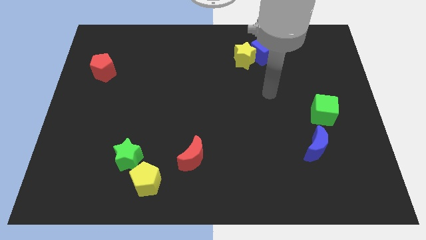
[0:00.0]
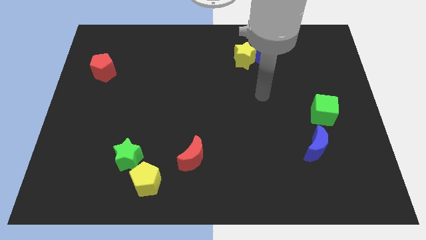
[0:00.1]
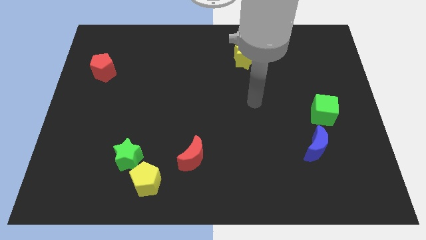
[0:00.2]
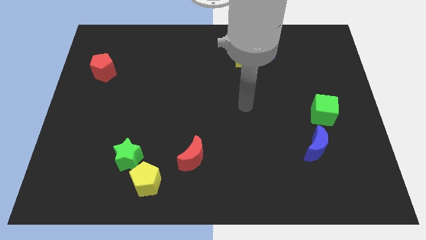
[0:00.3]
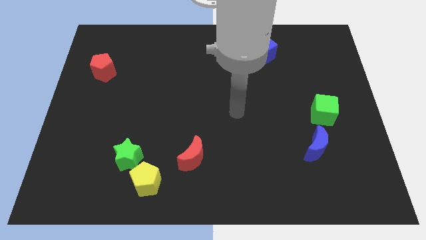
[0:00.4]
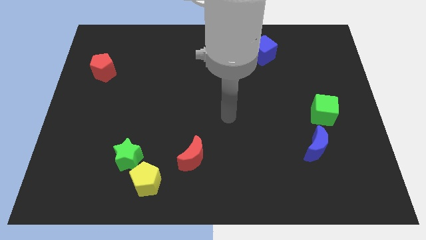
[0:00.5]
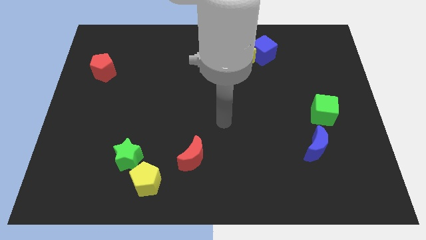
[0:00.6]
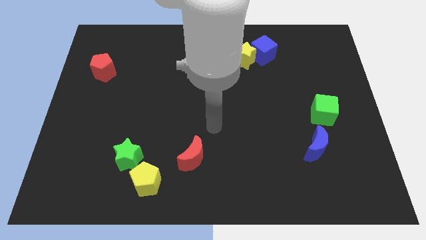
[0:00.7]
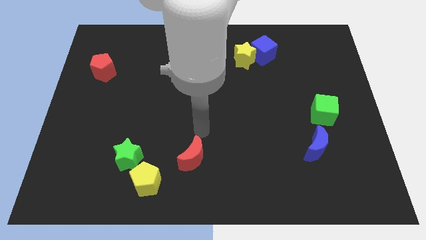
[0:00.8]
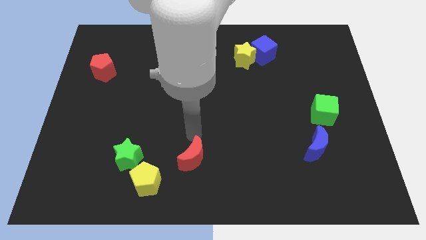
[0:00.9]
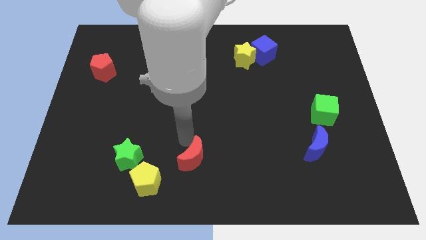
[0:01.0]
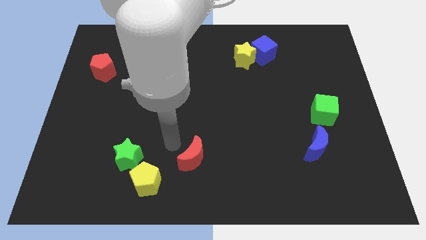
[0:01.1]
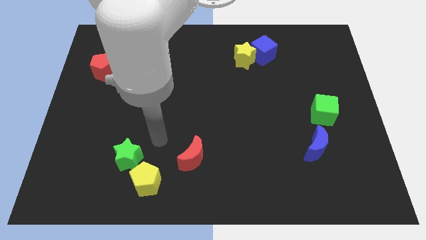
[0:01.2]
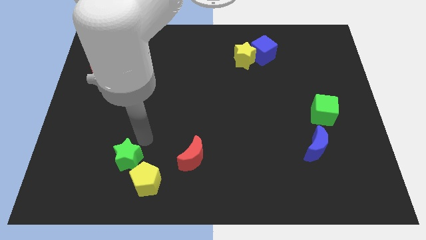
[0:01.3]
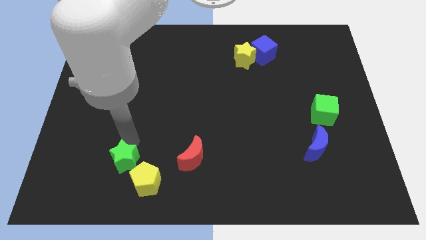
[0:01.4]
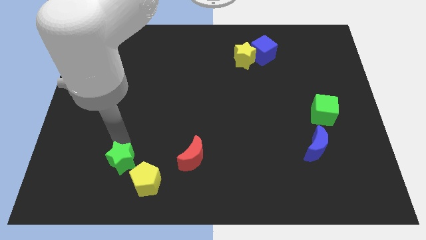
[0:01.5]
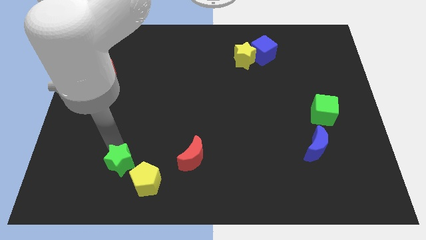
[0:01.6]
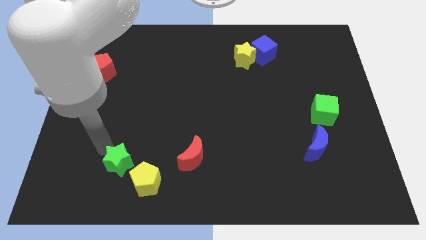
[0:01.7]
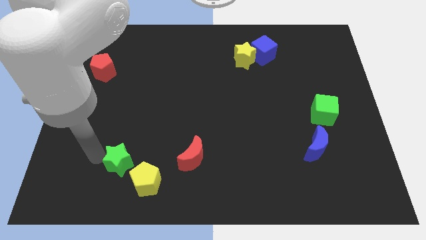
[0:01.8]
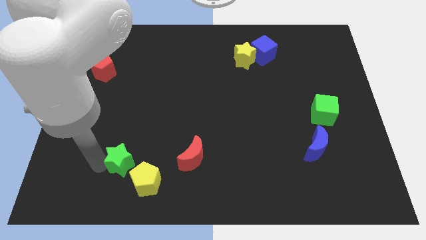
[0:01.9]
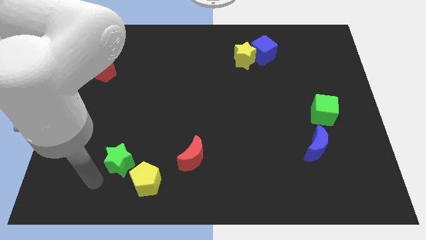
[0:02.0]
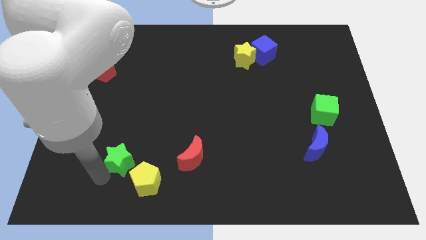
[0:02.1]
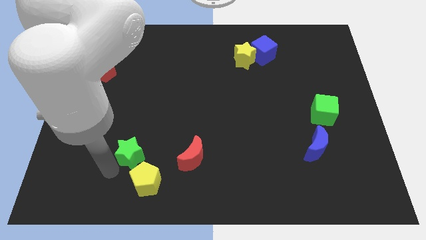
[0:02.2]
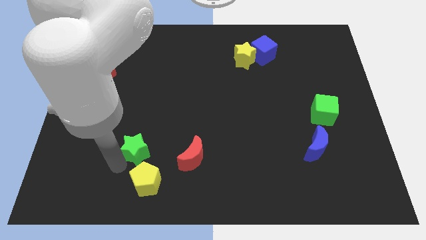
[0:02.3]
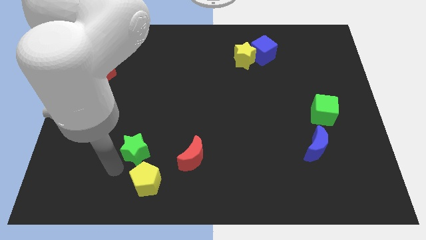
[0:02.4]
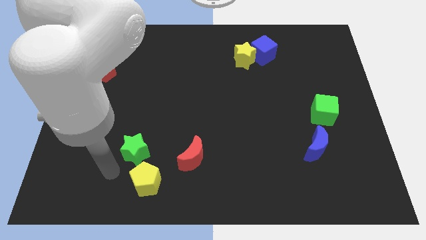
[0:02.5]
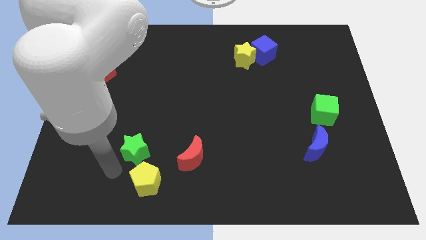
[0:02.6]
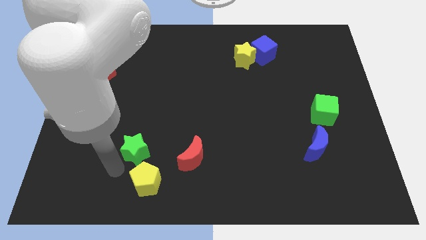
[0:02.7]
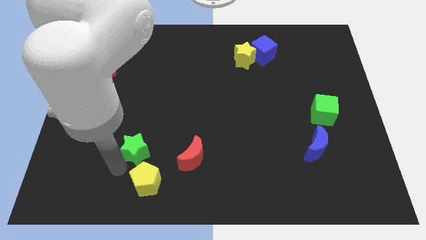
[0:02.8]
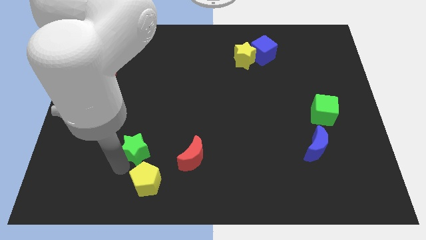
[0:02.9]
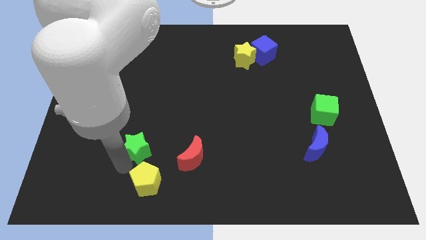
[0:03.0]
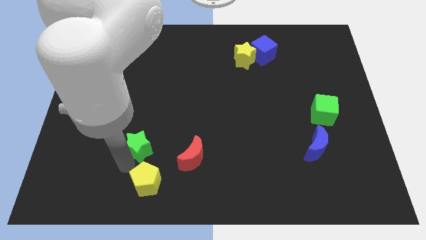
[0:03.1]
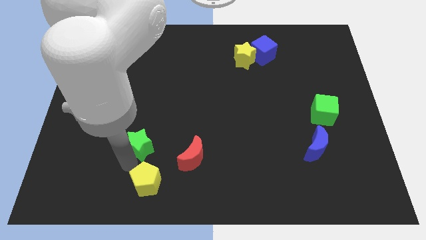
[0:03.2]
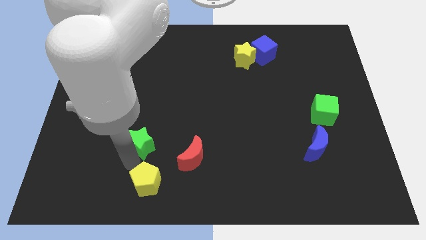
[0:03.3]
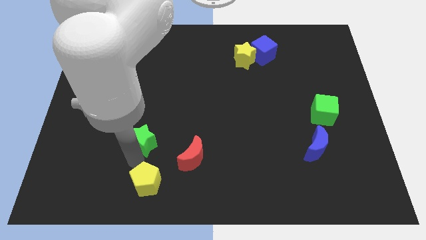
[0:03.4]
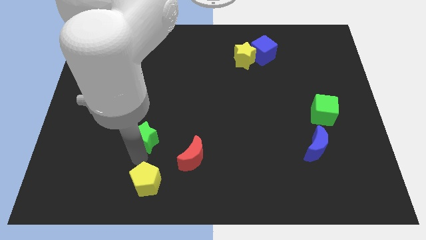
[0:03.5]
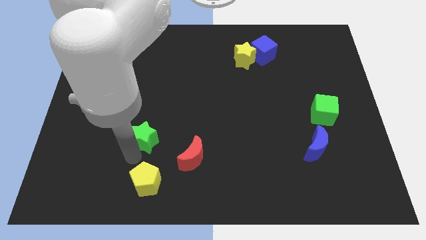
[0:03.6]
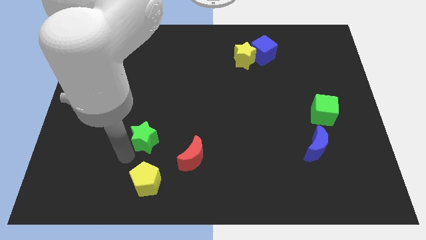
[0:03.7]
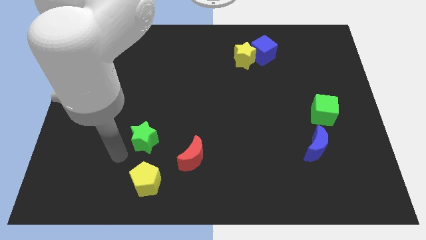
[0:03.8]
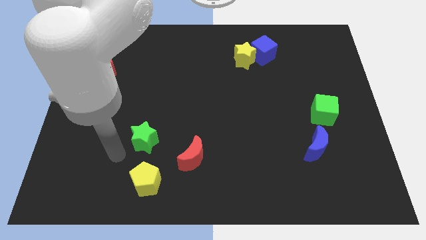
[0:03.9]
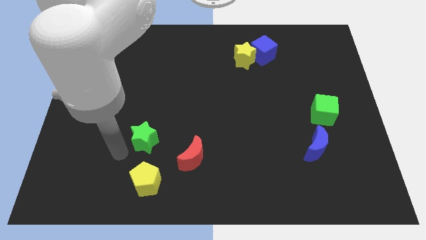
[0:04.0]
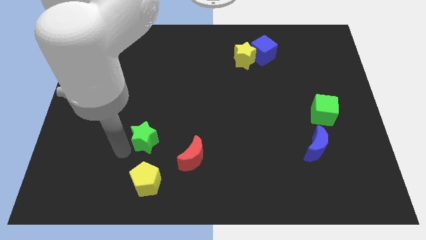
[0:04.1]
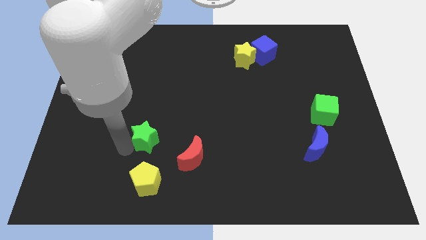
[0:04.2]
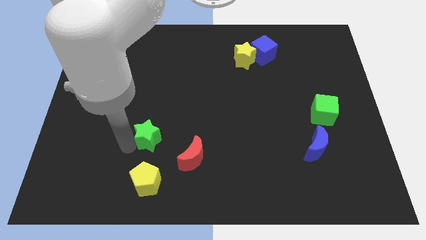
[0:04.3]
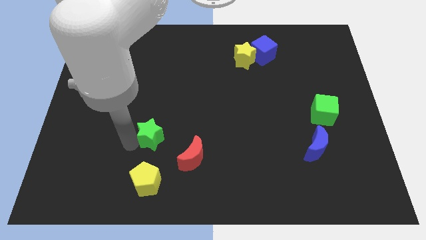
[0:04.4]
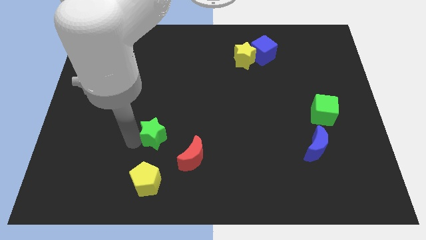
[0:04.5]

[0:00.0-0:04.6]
push the green star upwards and then right a little

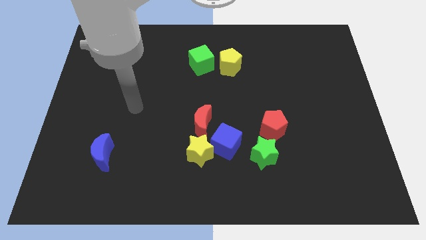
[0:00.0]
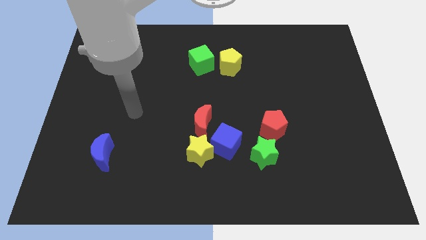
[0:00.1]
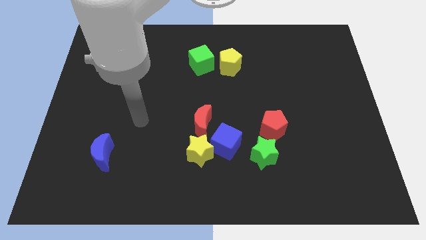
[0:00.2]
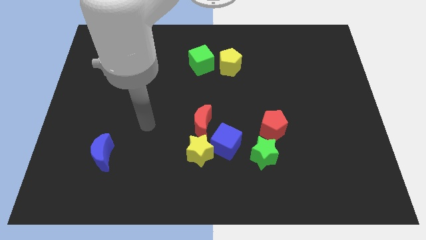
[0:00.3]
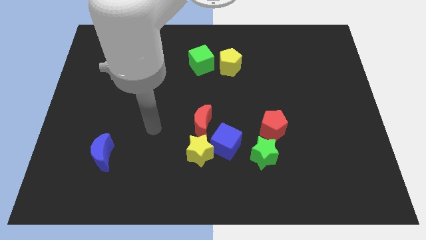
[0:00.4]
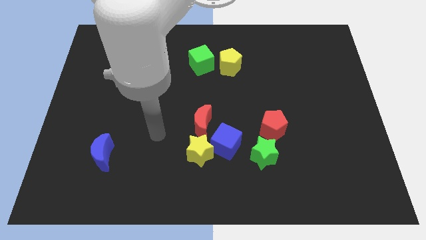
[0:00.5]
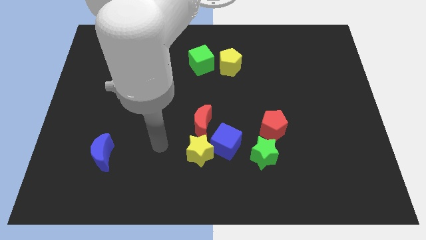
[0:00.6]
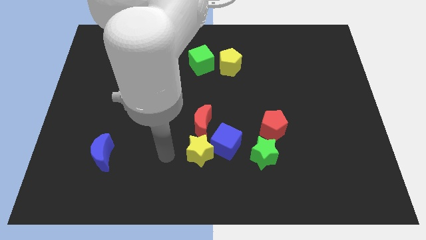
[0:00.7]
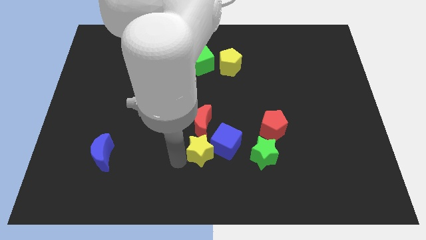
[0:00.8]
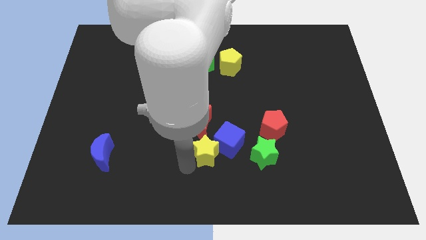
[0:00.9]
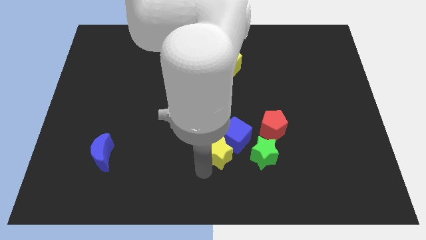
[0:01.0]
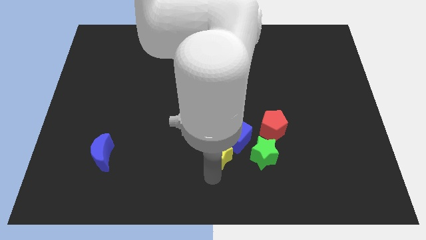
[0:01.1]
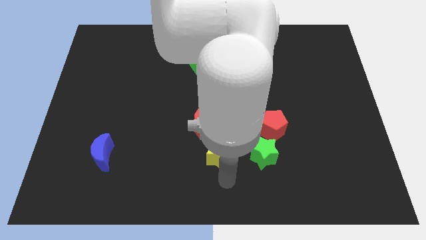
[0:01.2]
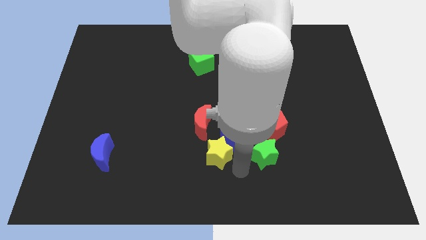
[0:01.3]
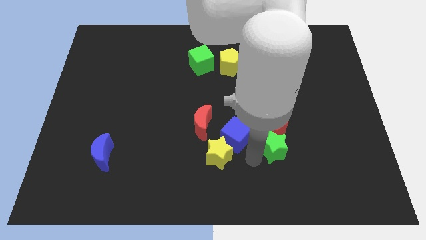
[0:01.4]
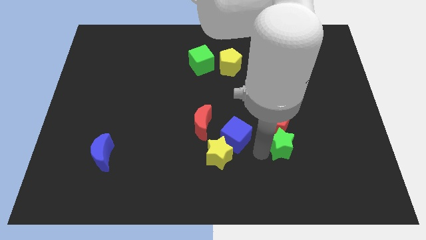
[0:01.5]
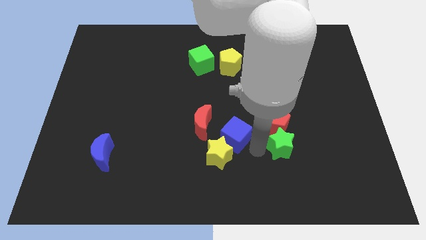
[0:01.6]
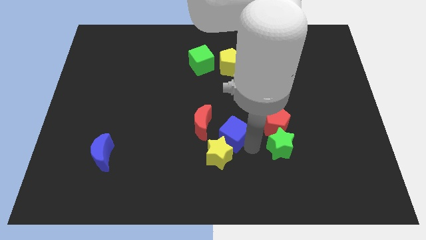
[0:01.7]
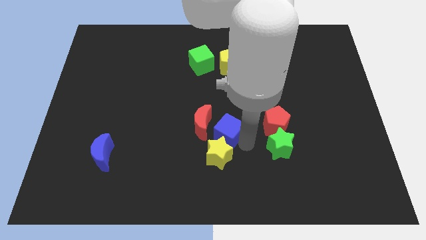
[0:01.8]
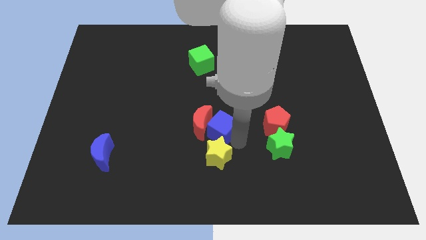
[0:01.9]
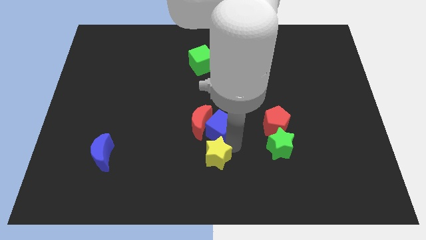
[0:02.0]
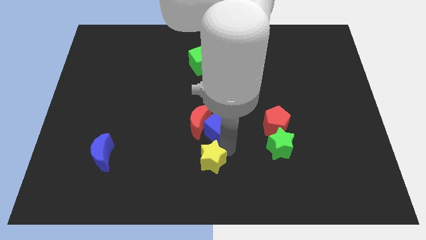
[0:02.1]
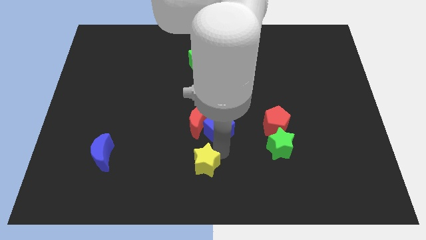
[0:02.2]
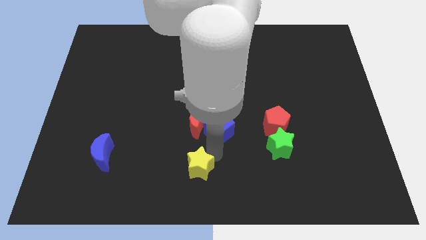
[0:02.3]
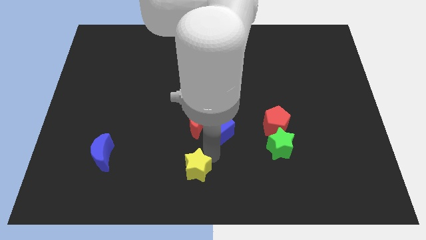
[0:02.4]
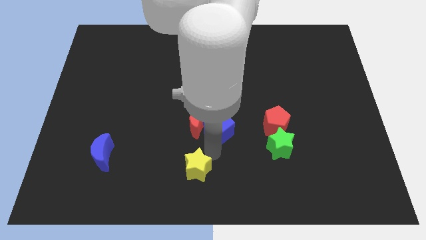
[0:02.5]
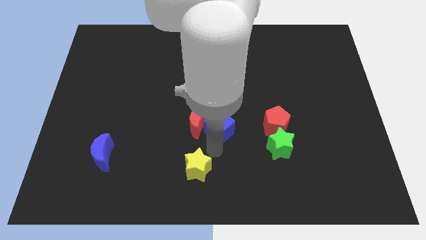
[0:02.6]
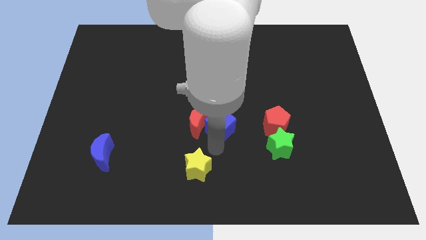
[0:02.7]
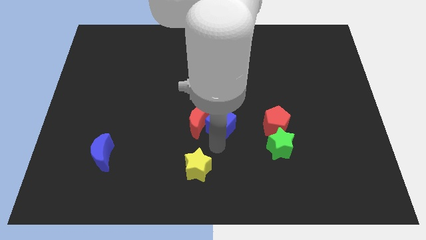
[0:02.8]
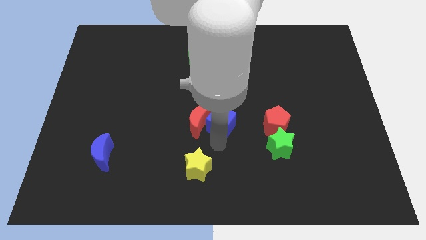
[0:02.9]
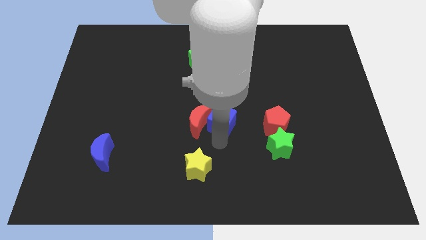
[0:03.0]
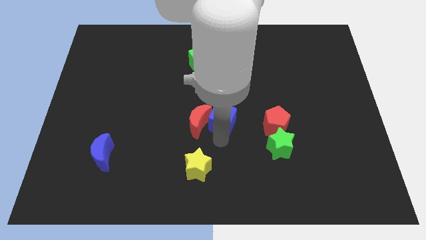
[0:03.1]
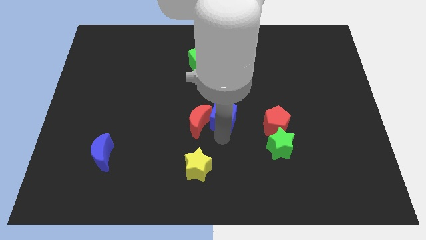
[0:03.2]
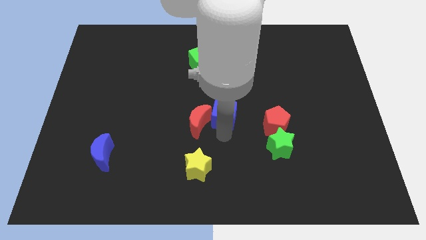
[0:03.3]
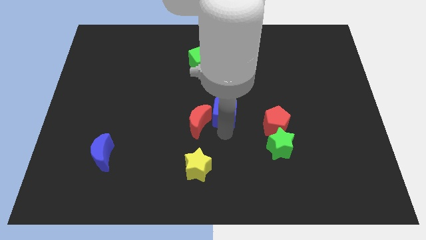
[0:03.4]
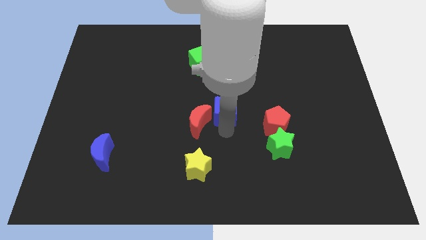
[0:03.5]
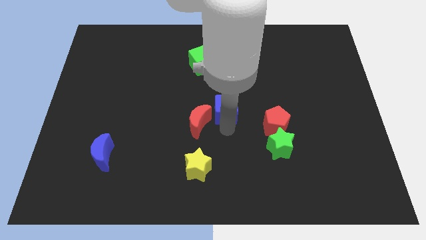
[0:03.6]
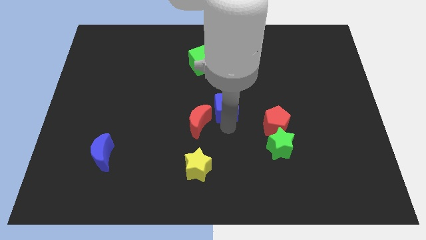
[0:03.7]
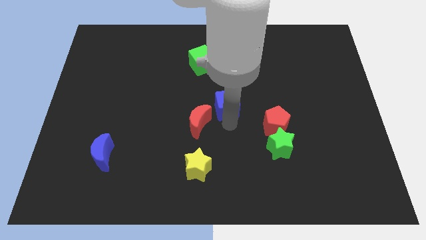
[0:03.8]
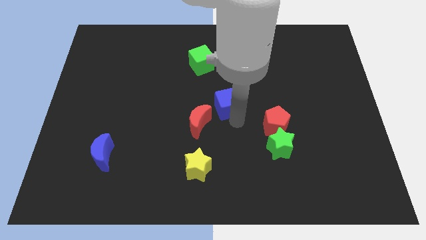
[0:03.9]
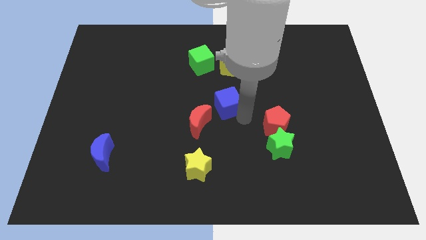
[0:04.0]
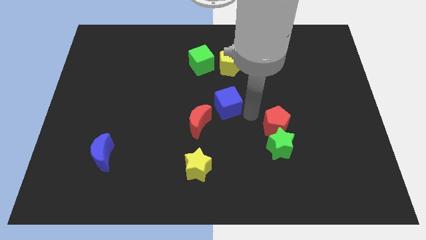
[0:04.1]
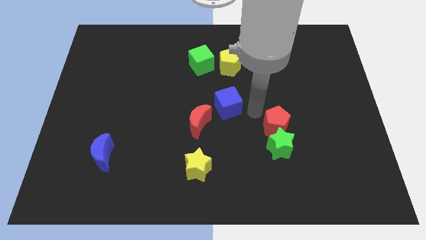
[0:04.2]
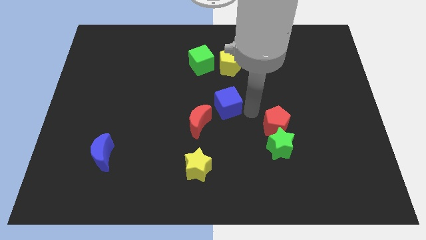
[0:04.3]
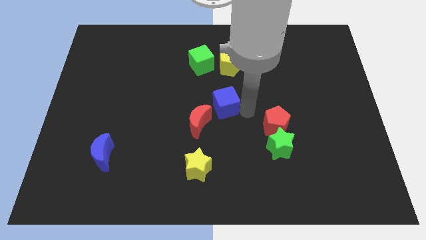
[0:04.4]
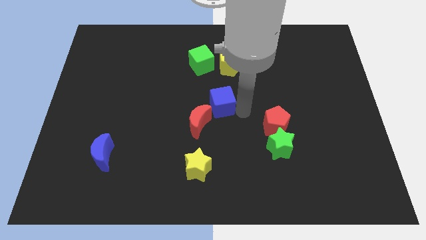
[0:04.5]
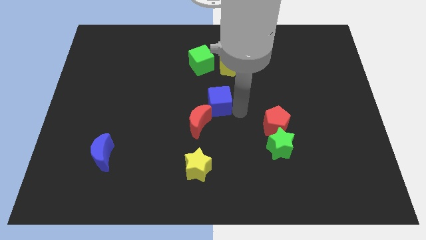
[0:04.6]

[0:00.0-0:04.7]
move the blue cube slightly upwards and left diagonally
